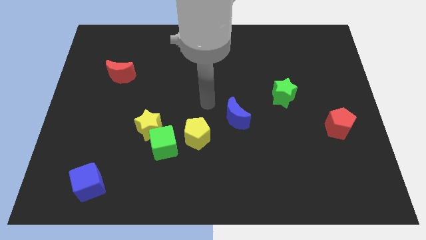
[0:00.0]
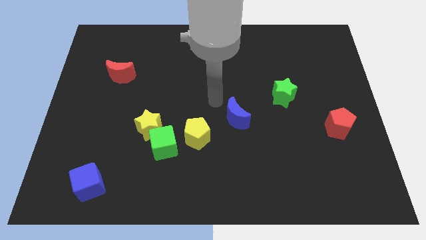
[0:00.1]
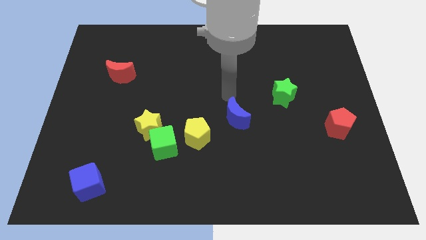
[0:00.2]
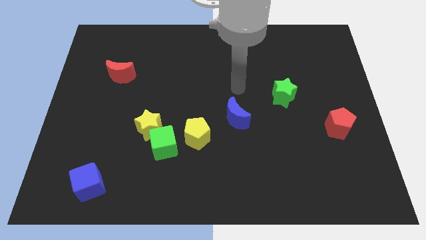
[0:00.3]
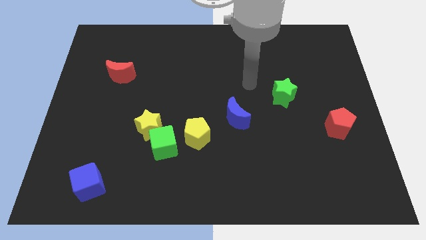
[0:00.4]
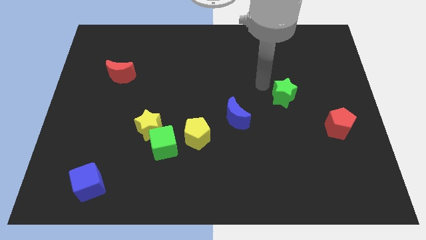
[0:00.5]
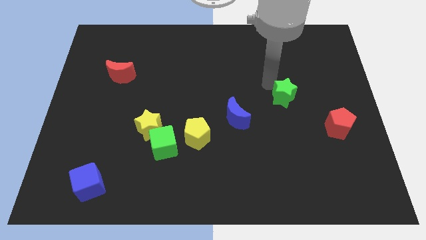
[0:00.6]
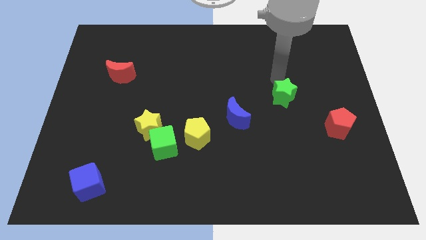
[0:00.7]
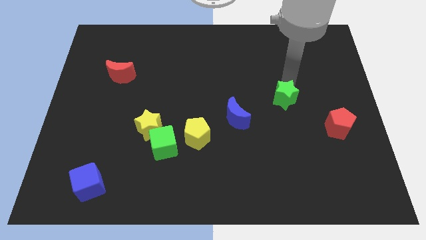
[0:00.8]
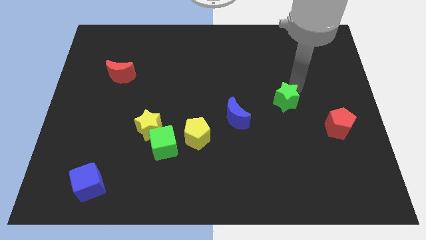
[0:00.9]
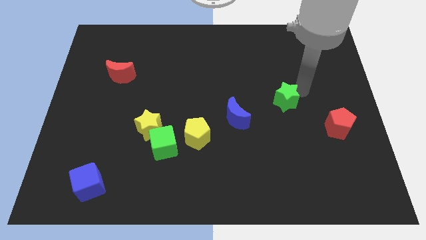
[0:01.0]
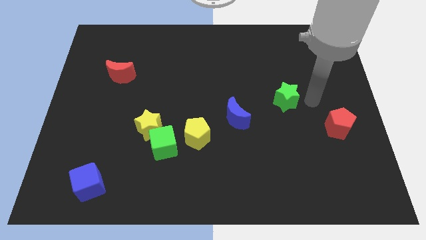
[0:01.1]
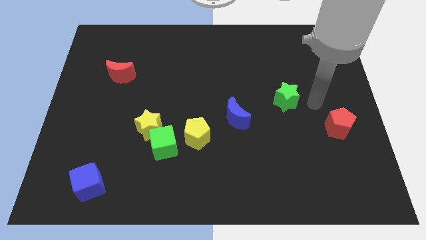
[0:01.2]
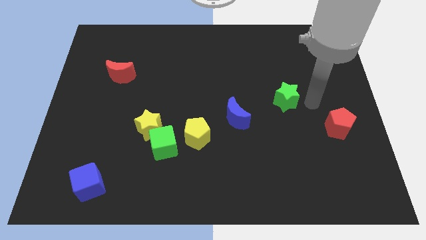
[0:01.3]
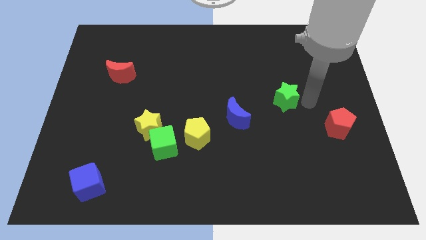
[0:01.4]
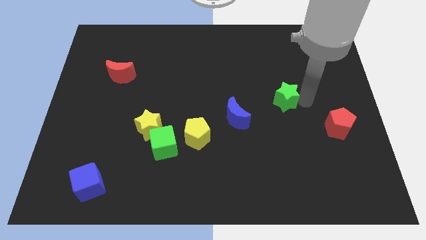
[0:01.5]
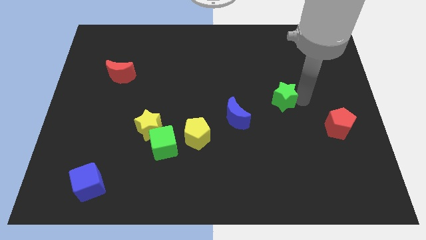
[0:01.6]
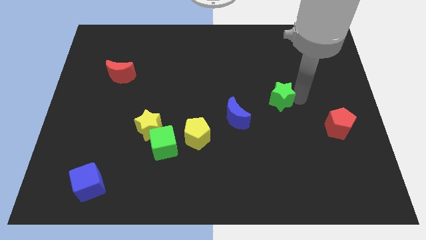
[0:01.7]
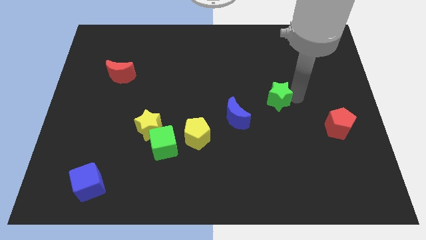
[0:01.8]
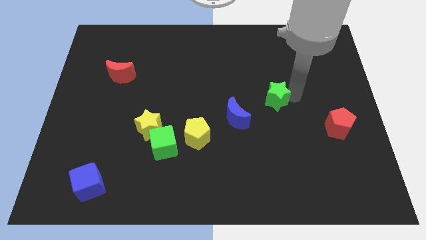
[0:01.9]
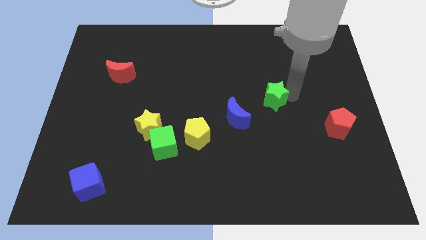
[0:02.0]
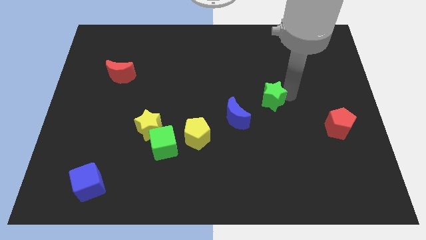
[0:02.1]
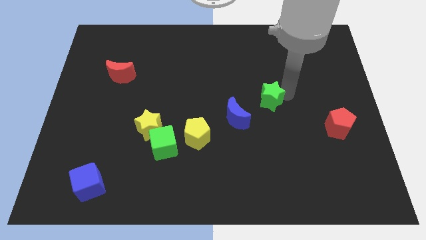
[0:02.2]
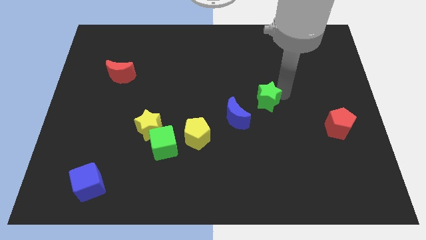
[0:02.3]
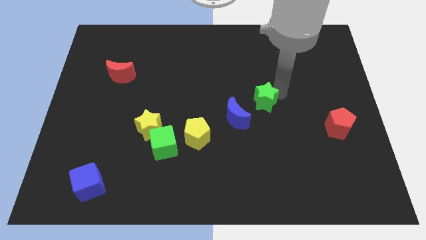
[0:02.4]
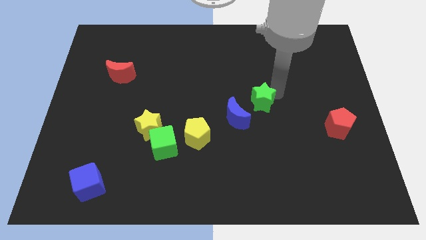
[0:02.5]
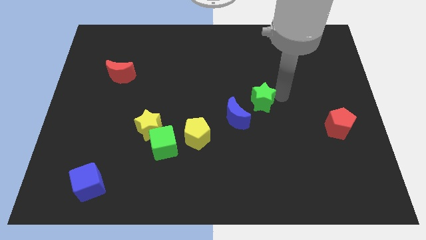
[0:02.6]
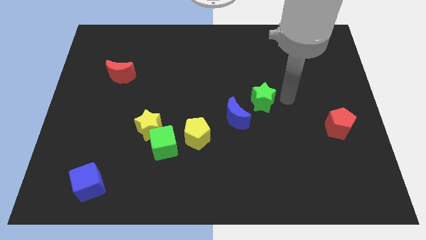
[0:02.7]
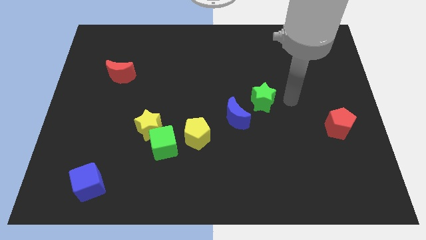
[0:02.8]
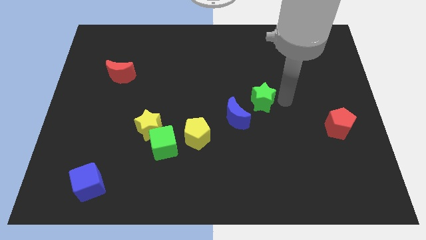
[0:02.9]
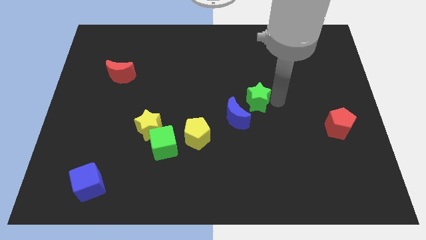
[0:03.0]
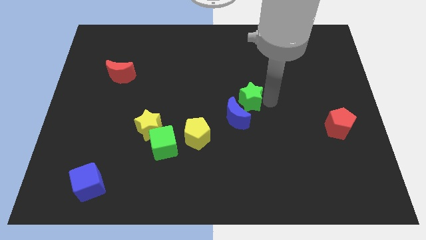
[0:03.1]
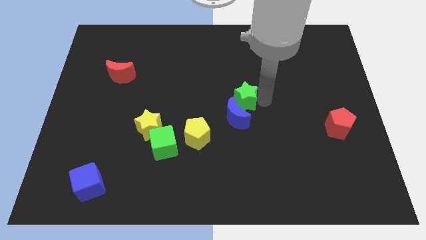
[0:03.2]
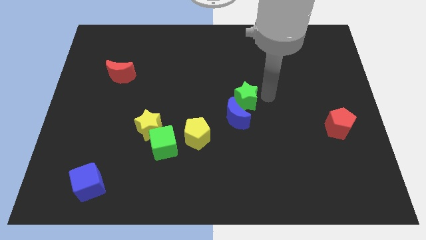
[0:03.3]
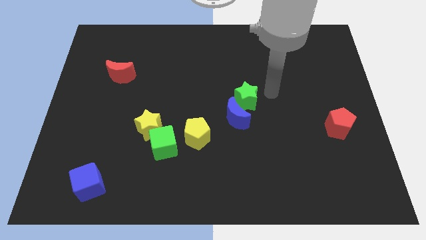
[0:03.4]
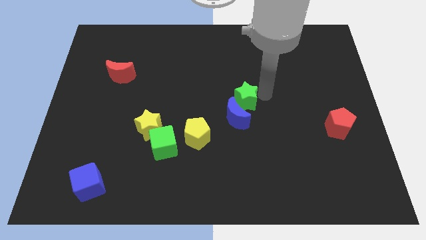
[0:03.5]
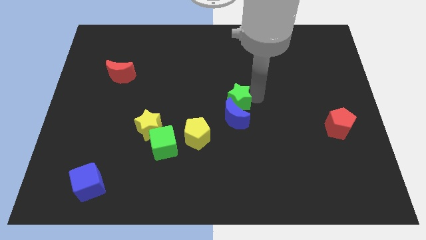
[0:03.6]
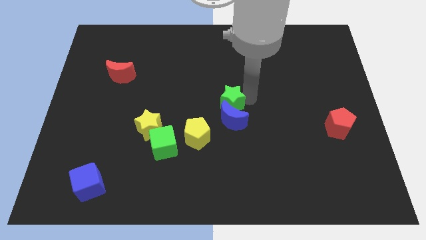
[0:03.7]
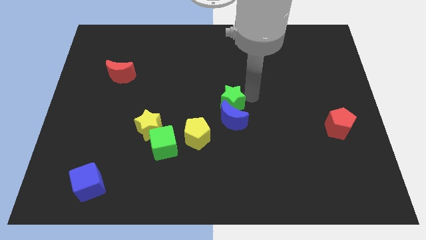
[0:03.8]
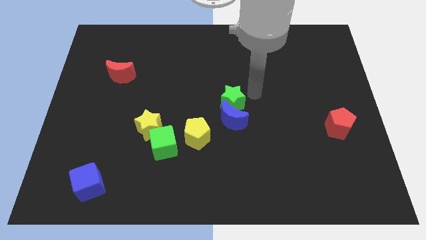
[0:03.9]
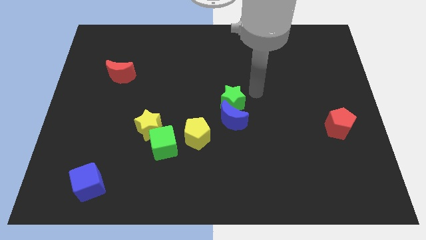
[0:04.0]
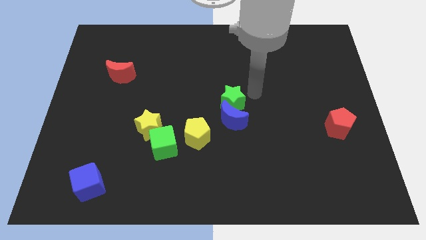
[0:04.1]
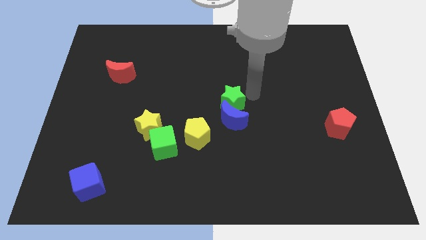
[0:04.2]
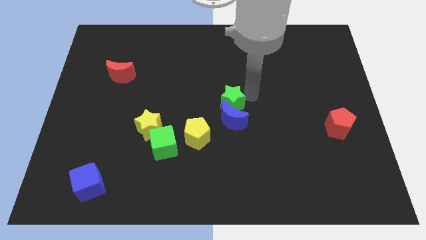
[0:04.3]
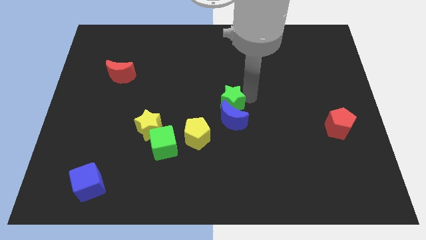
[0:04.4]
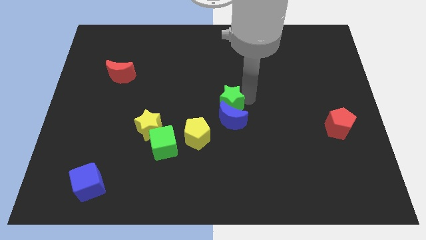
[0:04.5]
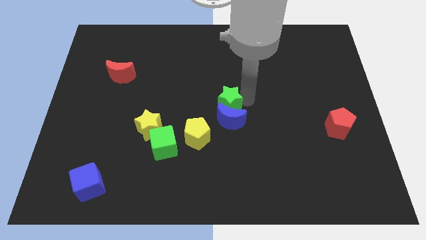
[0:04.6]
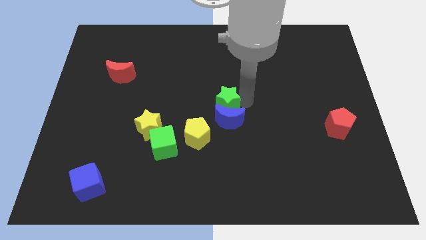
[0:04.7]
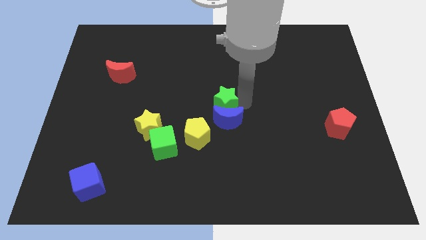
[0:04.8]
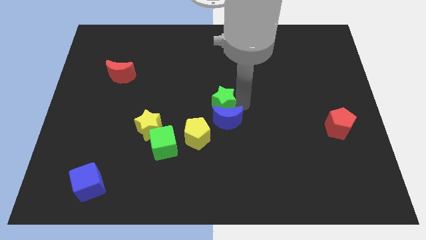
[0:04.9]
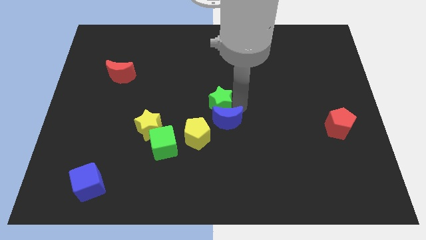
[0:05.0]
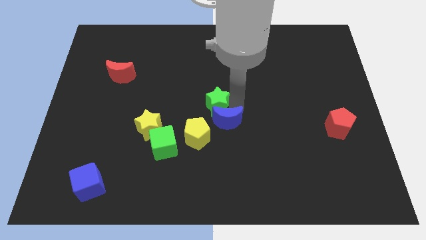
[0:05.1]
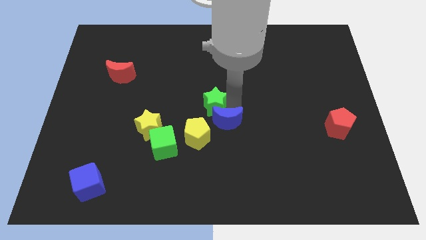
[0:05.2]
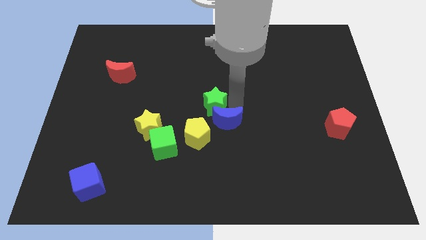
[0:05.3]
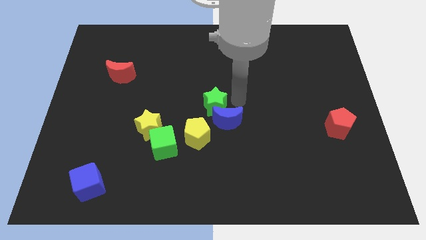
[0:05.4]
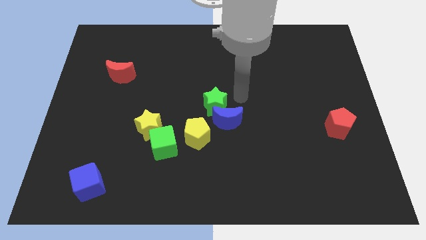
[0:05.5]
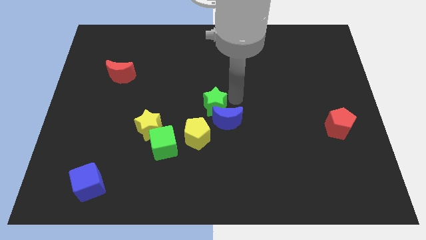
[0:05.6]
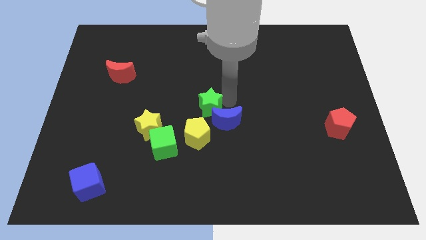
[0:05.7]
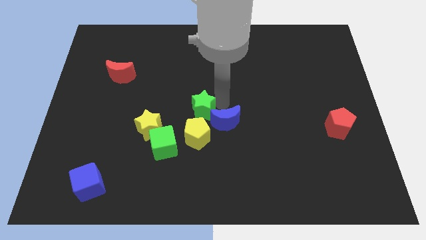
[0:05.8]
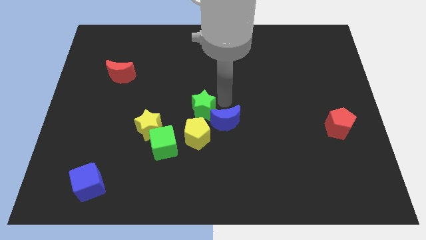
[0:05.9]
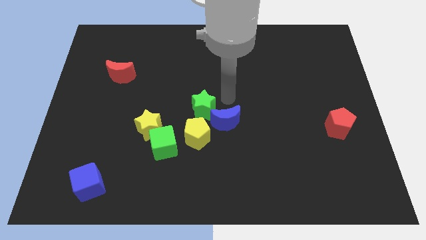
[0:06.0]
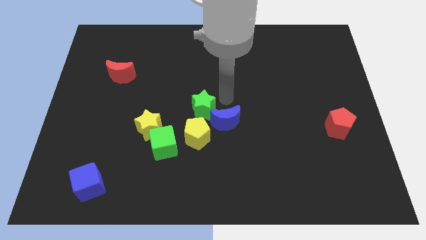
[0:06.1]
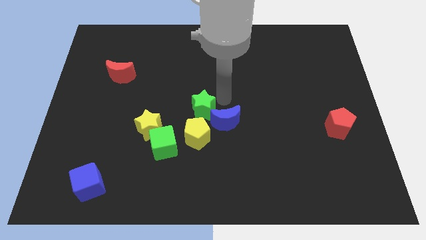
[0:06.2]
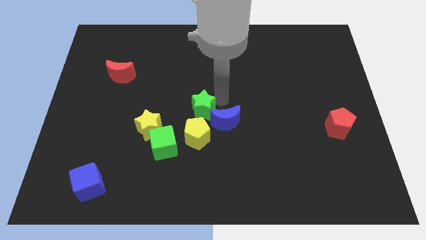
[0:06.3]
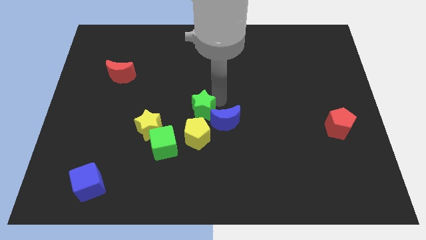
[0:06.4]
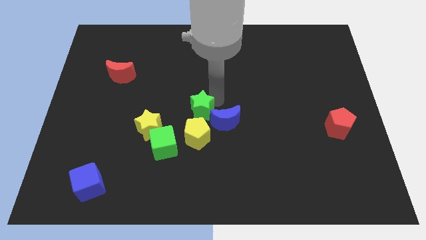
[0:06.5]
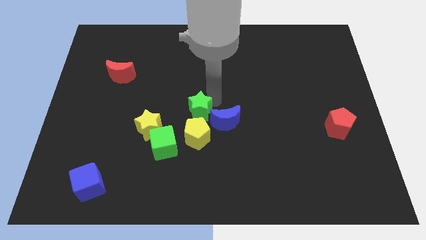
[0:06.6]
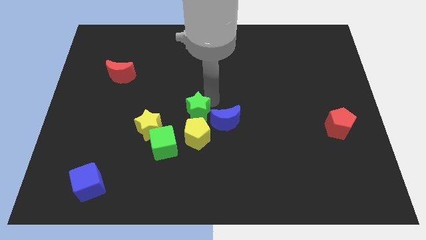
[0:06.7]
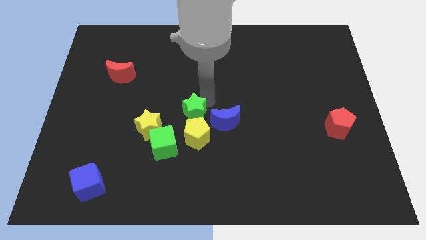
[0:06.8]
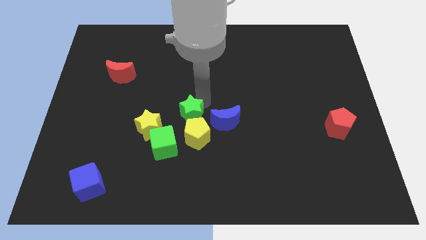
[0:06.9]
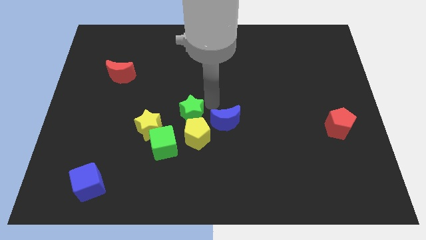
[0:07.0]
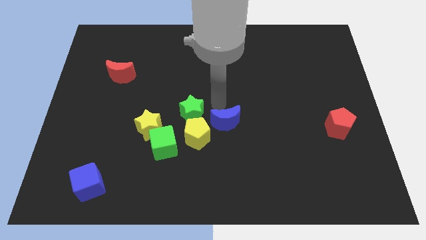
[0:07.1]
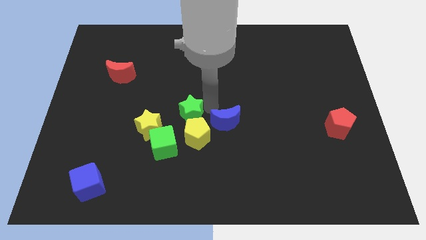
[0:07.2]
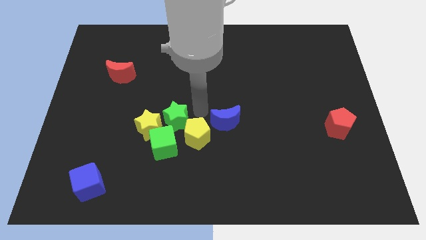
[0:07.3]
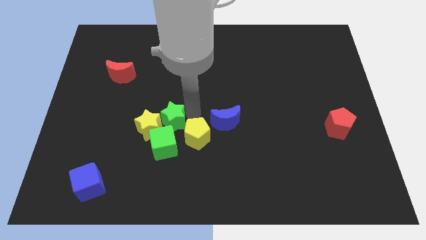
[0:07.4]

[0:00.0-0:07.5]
move the green star next to the yellow star
